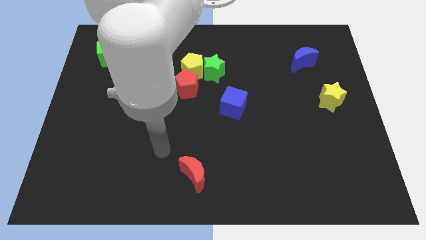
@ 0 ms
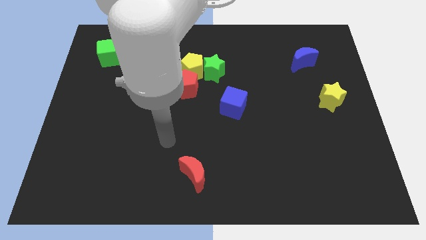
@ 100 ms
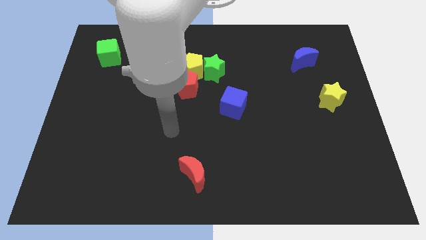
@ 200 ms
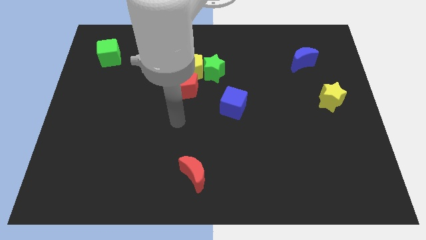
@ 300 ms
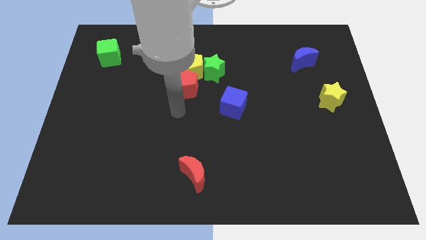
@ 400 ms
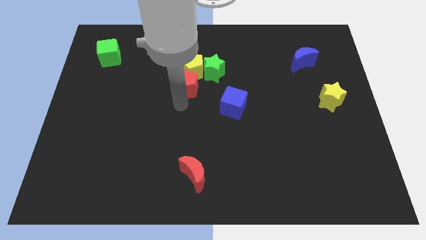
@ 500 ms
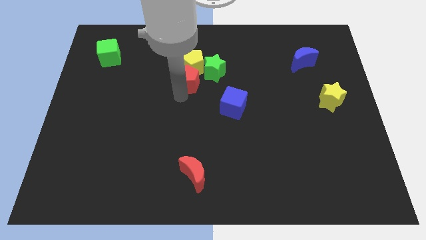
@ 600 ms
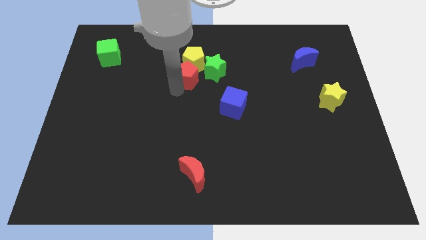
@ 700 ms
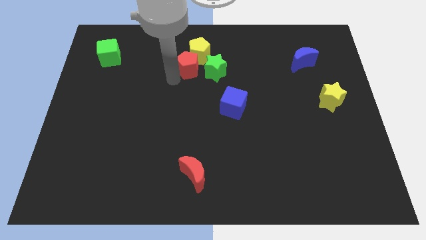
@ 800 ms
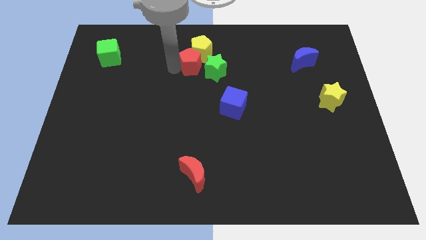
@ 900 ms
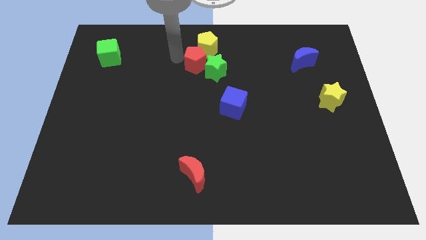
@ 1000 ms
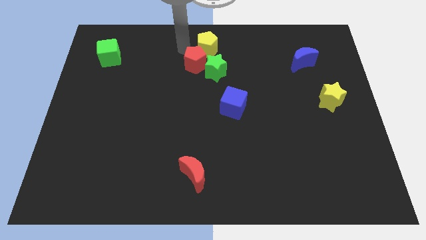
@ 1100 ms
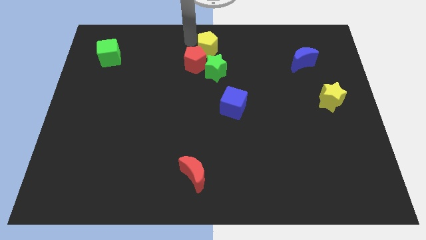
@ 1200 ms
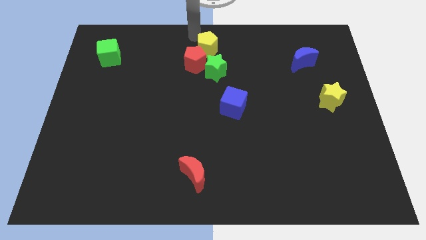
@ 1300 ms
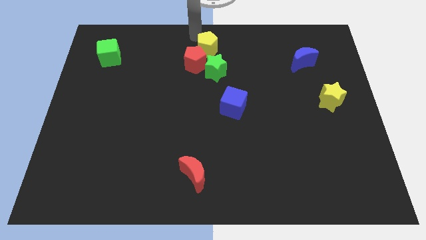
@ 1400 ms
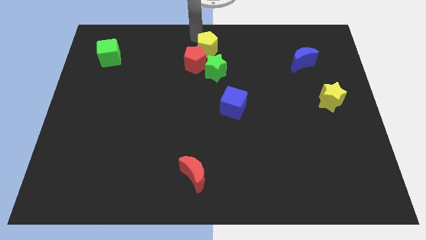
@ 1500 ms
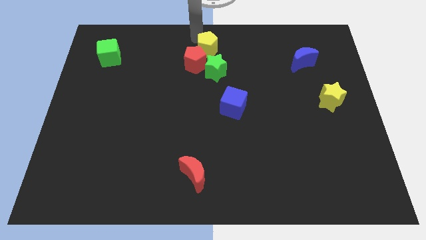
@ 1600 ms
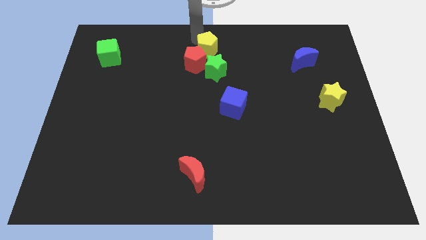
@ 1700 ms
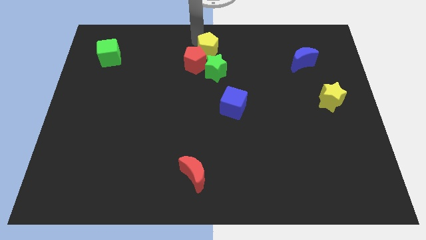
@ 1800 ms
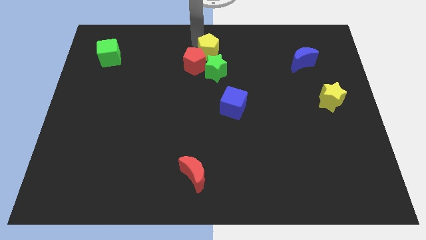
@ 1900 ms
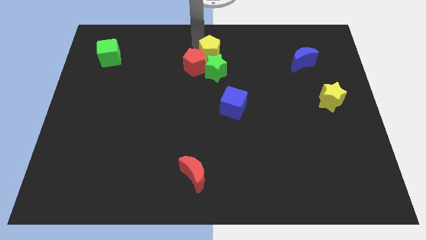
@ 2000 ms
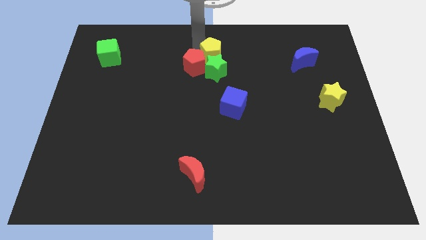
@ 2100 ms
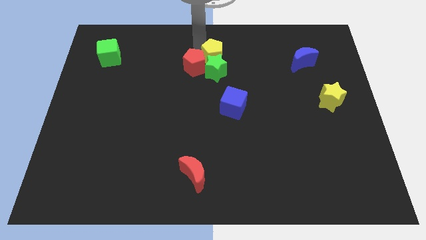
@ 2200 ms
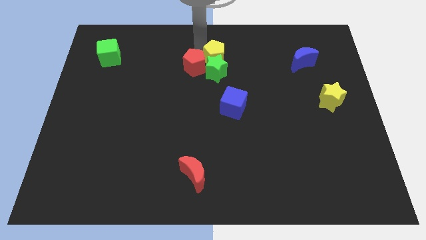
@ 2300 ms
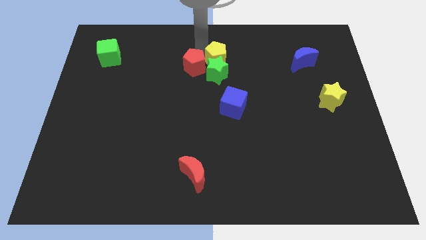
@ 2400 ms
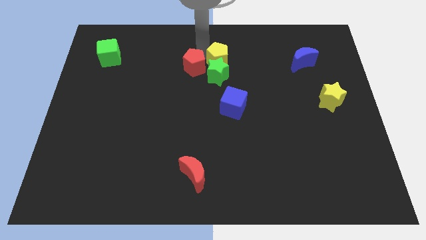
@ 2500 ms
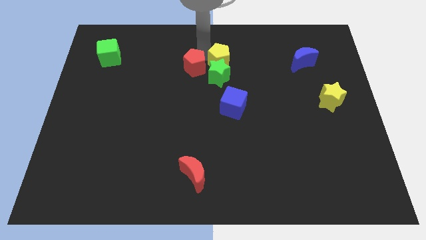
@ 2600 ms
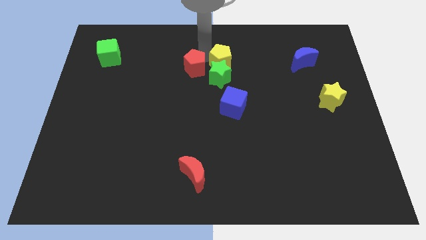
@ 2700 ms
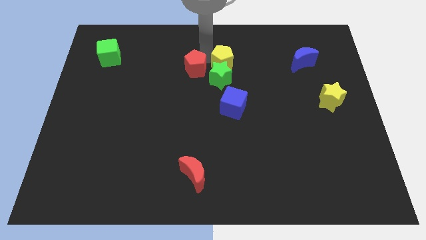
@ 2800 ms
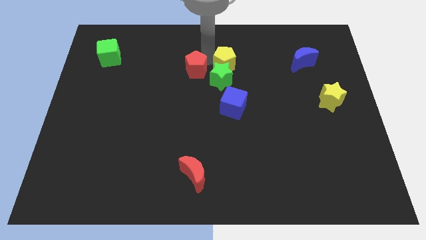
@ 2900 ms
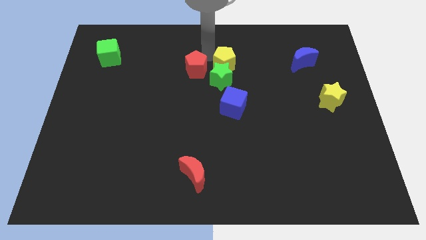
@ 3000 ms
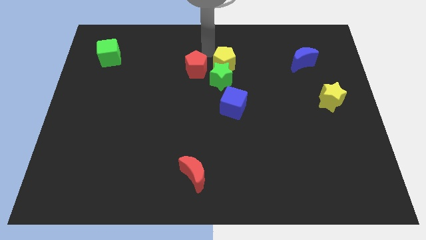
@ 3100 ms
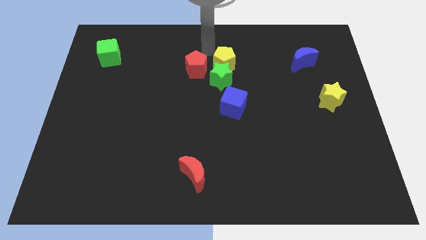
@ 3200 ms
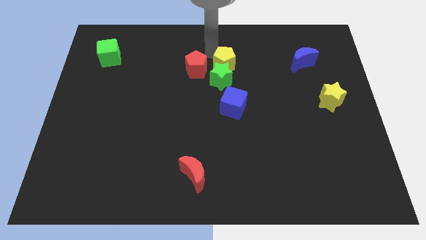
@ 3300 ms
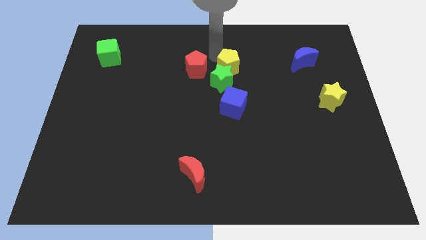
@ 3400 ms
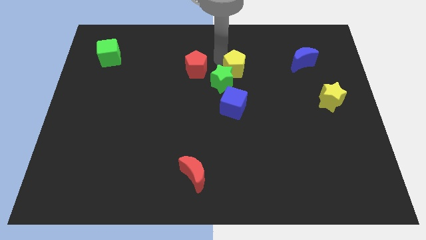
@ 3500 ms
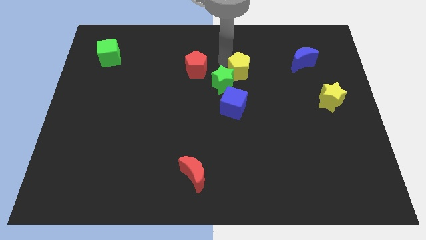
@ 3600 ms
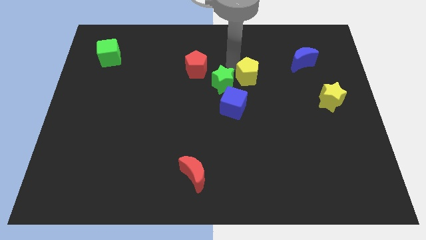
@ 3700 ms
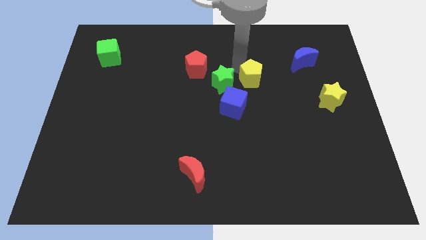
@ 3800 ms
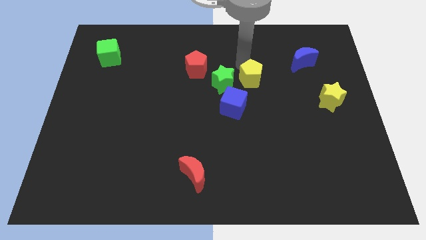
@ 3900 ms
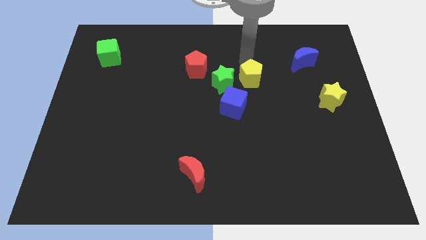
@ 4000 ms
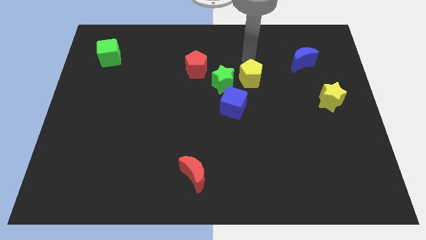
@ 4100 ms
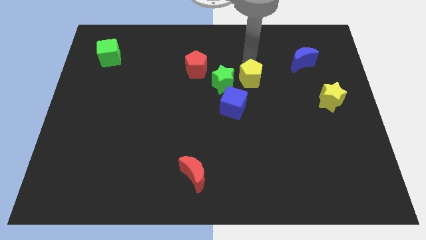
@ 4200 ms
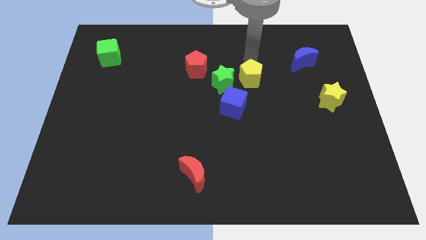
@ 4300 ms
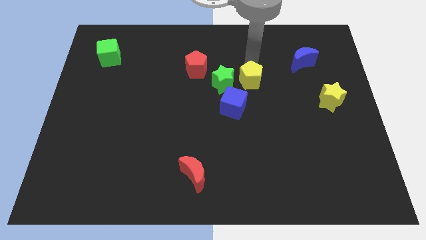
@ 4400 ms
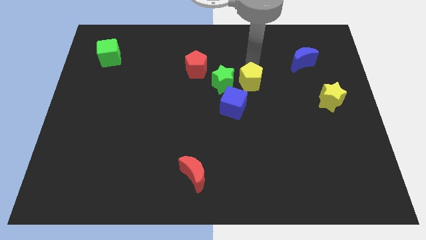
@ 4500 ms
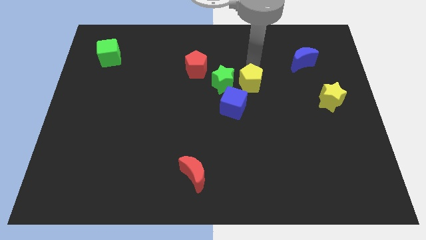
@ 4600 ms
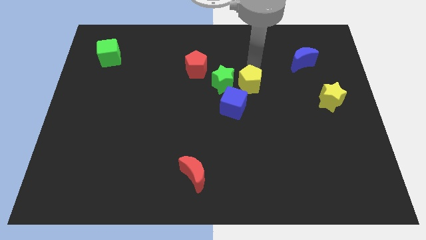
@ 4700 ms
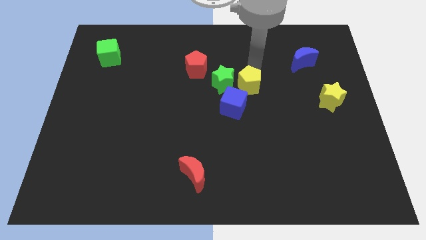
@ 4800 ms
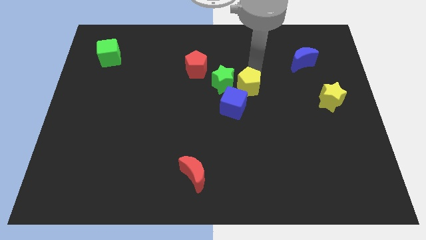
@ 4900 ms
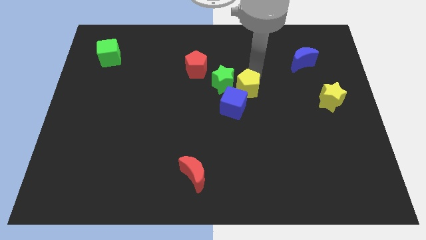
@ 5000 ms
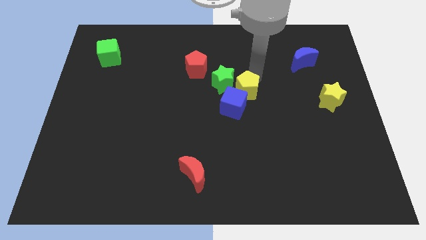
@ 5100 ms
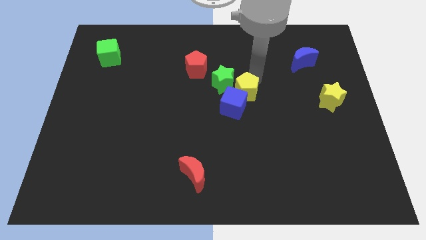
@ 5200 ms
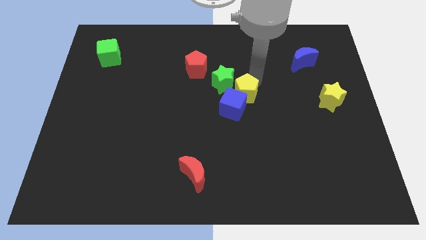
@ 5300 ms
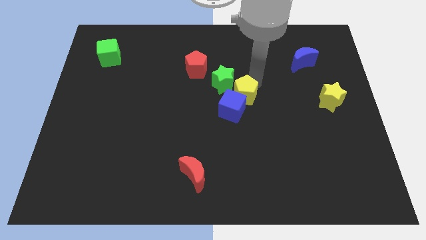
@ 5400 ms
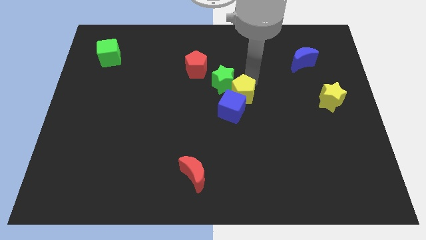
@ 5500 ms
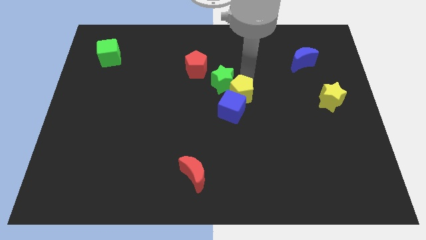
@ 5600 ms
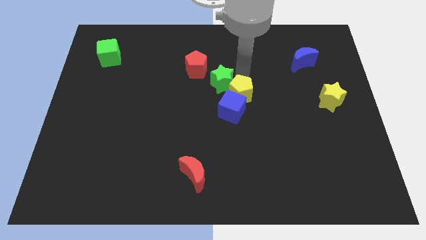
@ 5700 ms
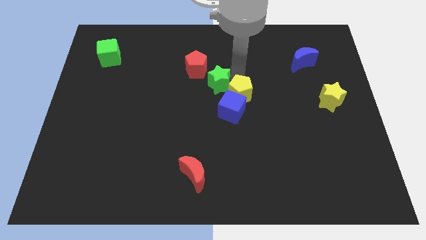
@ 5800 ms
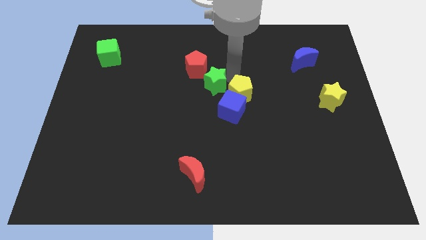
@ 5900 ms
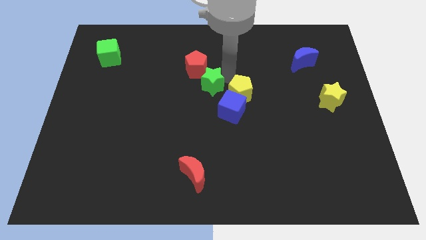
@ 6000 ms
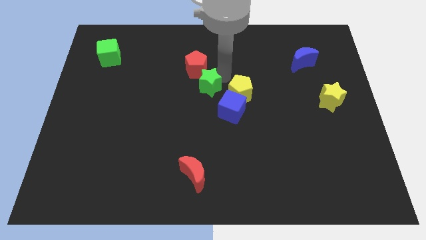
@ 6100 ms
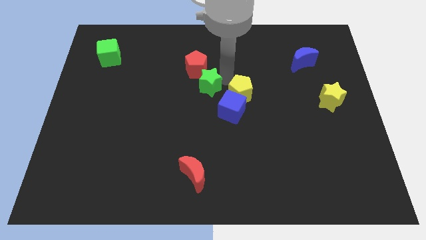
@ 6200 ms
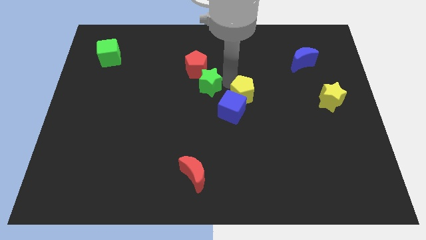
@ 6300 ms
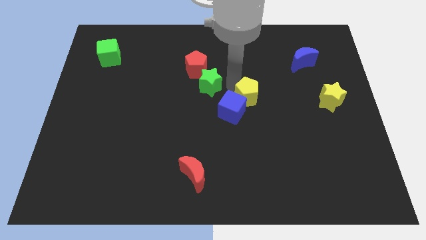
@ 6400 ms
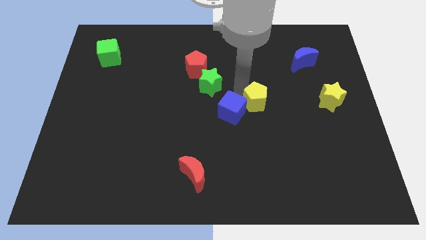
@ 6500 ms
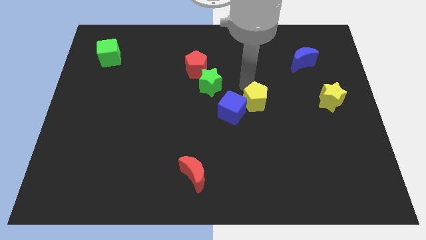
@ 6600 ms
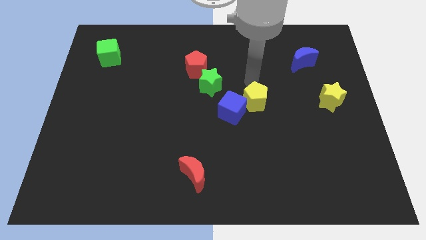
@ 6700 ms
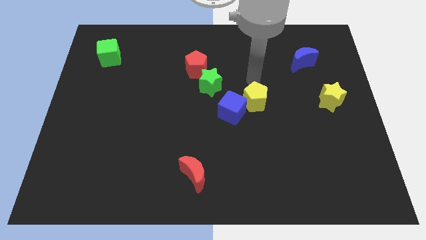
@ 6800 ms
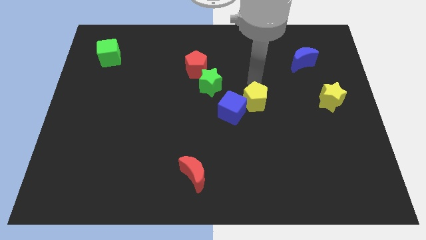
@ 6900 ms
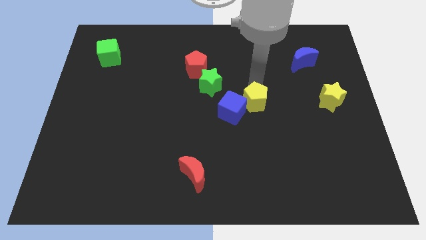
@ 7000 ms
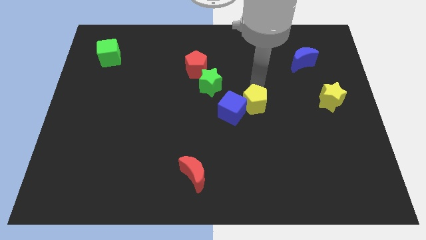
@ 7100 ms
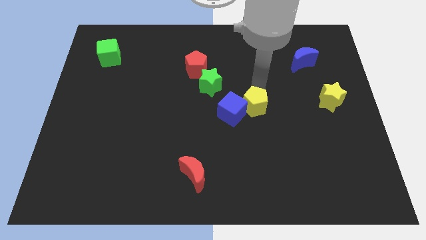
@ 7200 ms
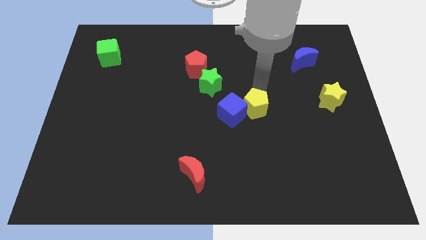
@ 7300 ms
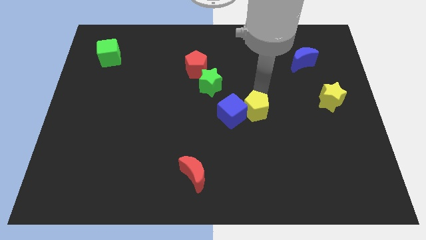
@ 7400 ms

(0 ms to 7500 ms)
put the yellow pentagon to the bottom right of the blue cube

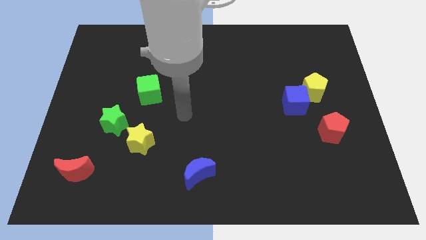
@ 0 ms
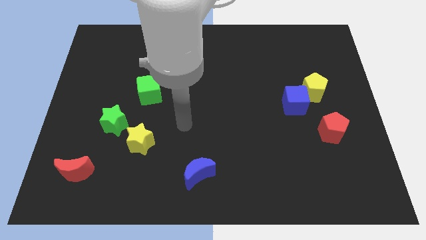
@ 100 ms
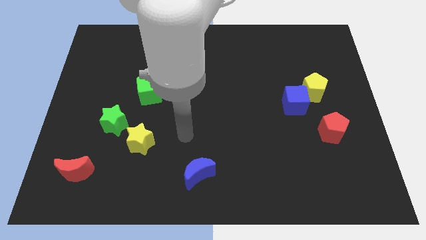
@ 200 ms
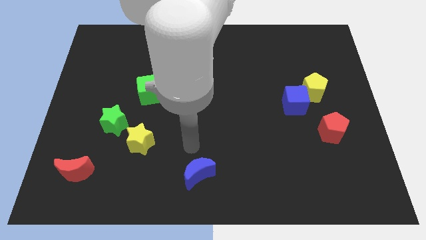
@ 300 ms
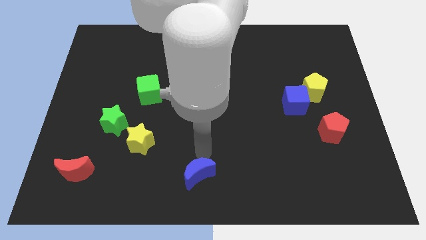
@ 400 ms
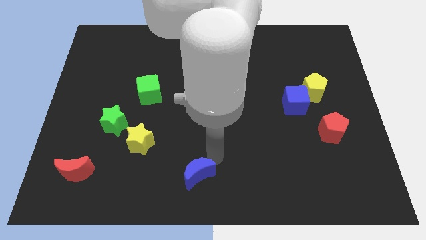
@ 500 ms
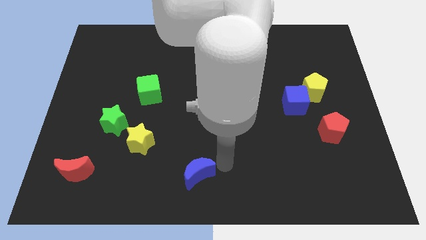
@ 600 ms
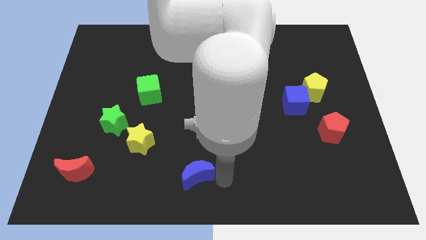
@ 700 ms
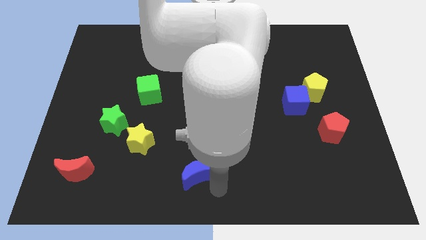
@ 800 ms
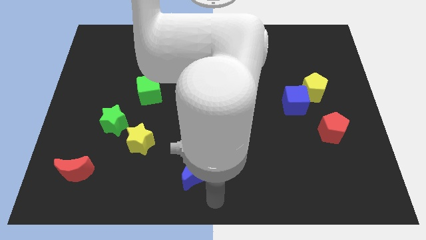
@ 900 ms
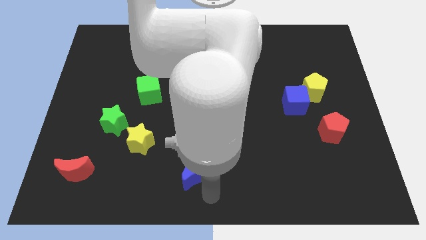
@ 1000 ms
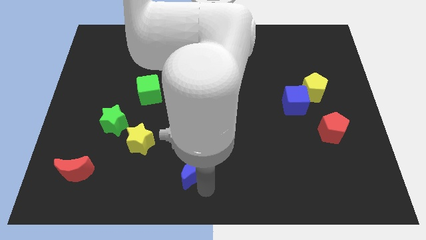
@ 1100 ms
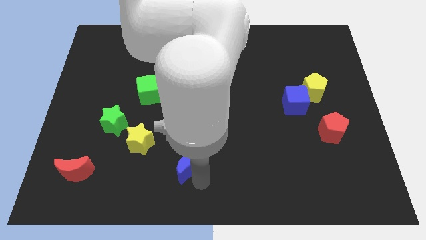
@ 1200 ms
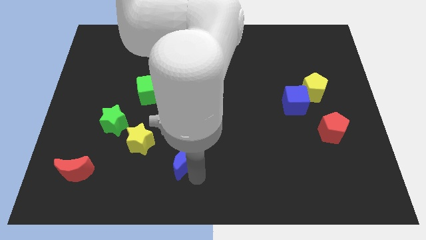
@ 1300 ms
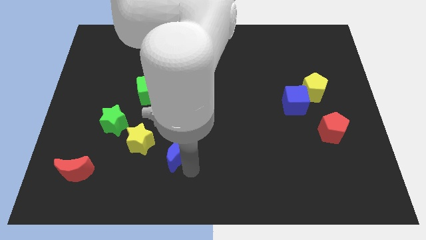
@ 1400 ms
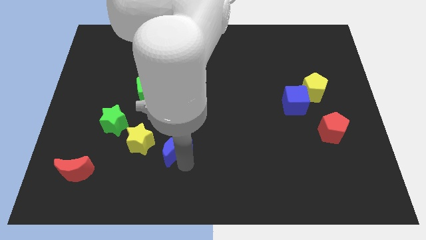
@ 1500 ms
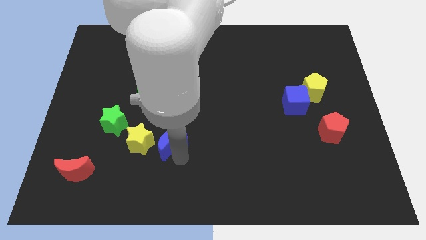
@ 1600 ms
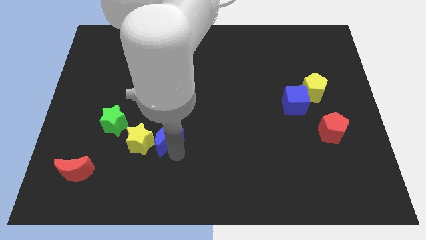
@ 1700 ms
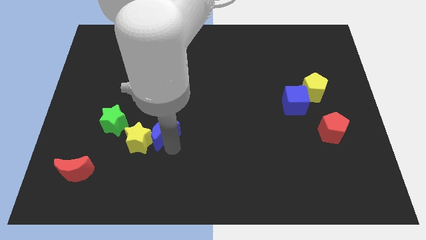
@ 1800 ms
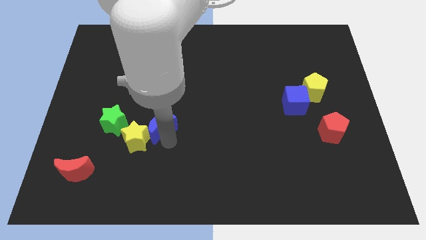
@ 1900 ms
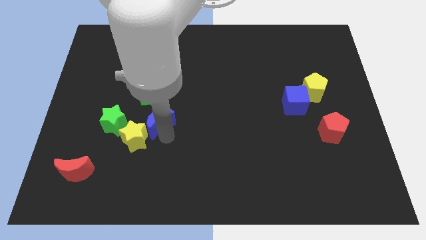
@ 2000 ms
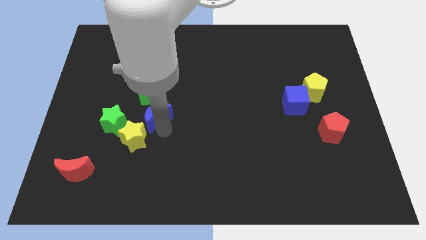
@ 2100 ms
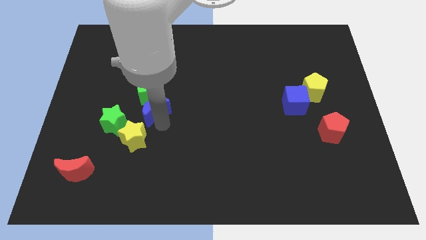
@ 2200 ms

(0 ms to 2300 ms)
slide the blue moon diagonally up and to the right of the green star
